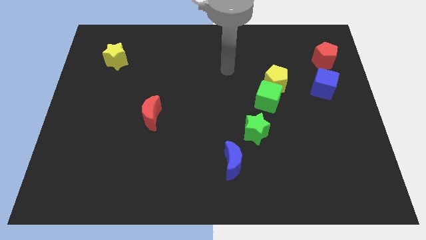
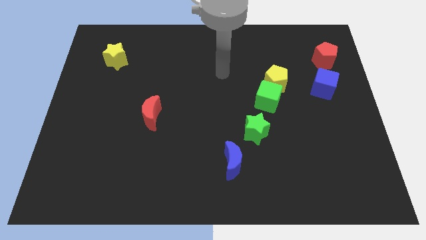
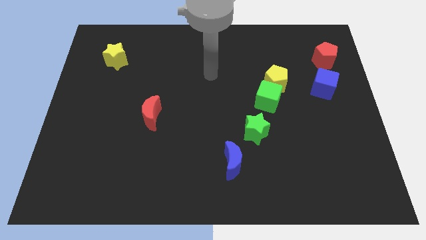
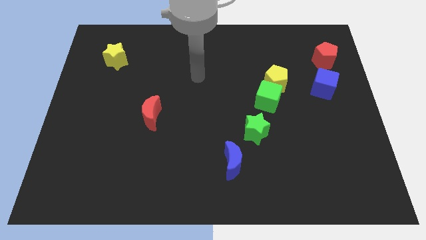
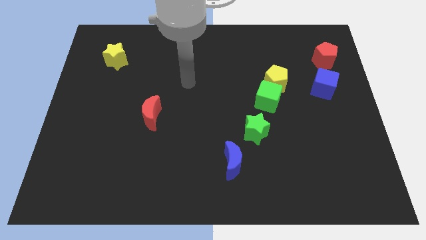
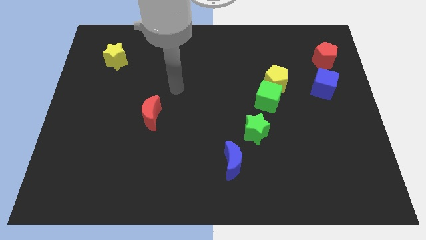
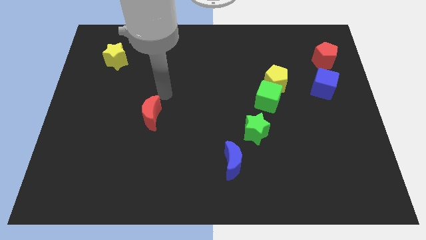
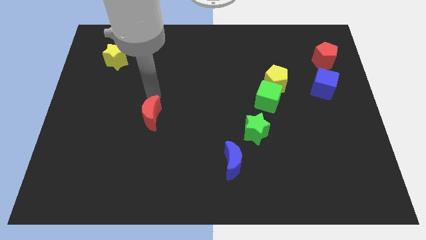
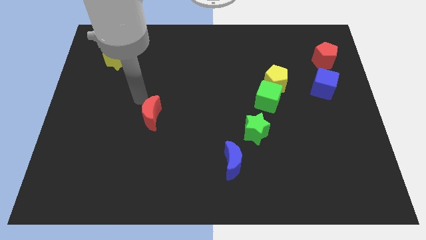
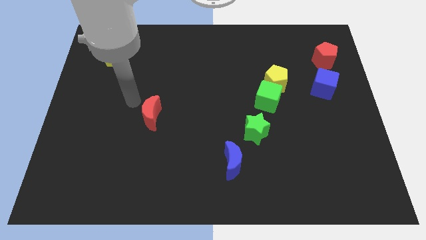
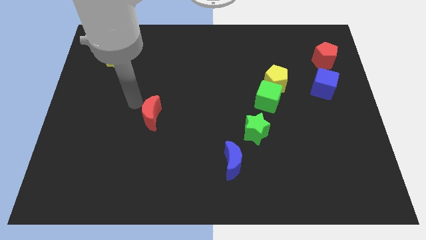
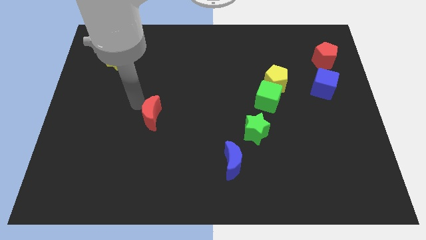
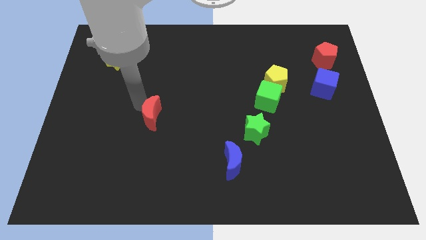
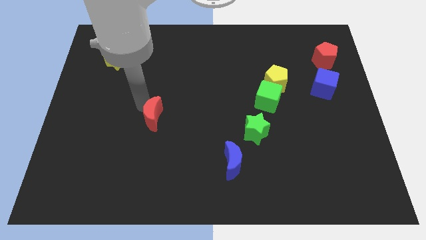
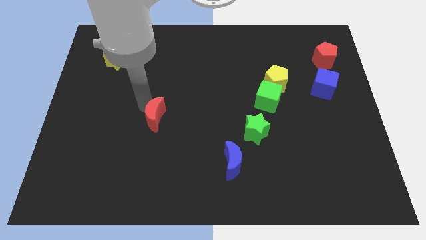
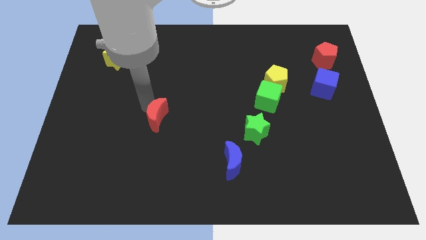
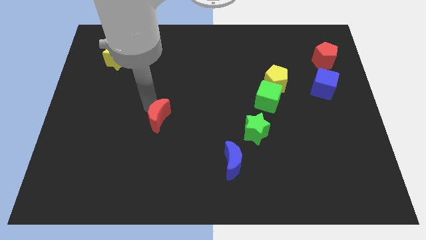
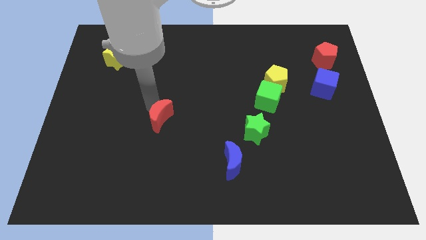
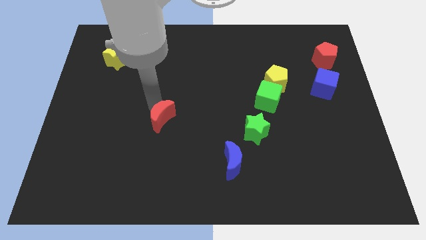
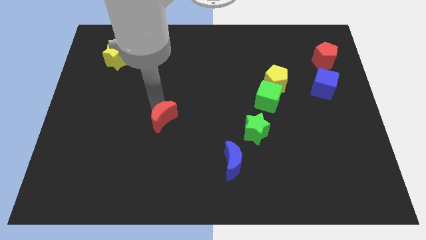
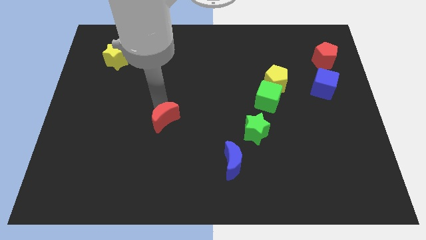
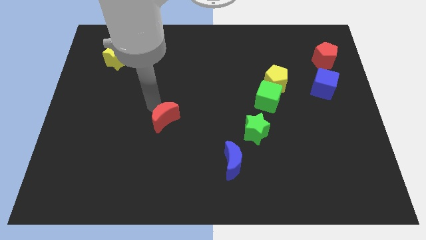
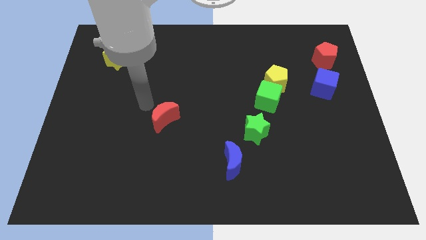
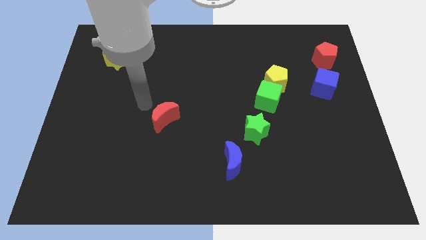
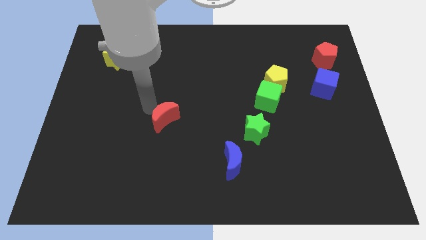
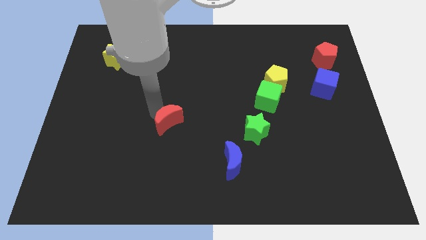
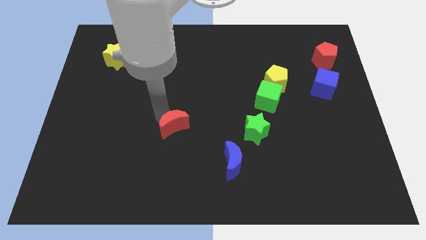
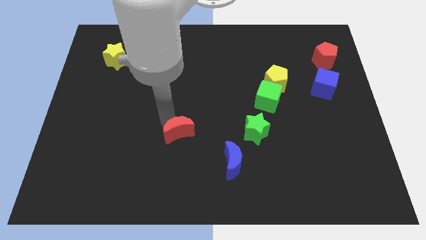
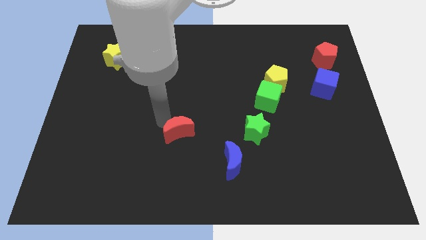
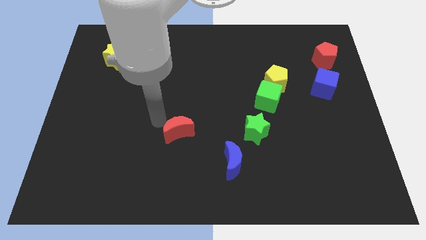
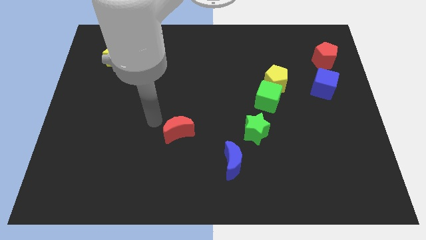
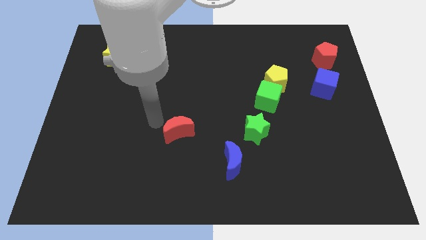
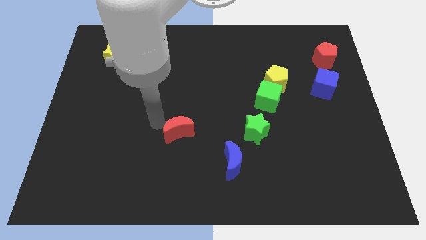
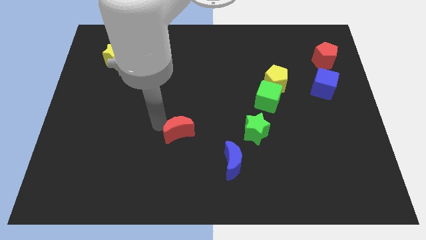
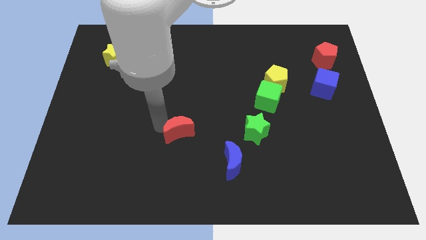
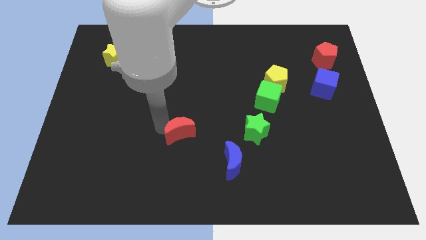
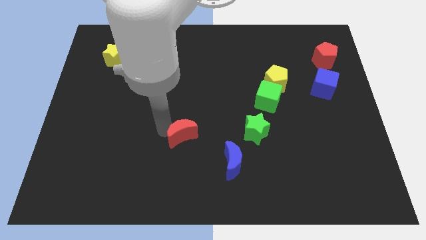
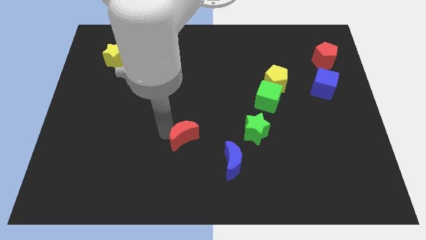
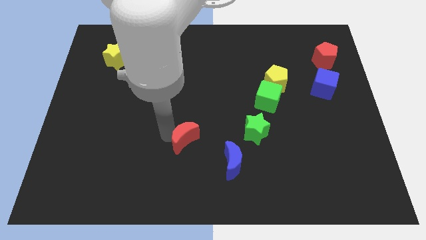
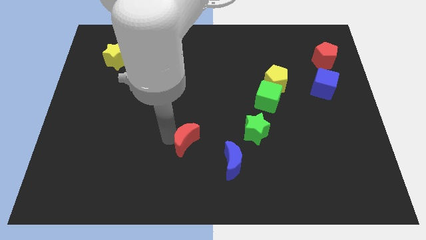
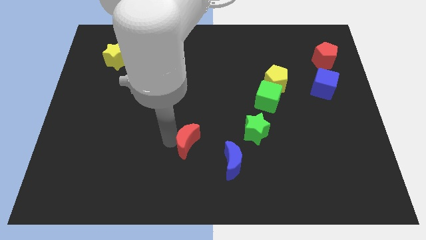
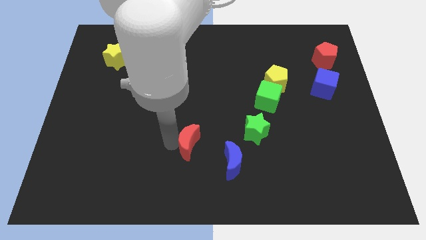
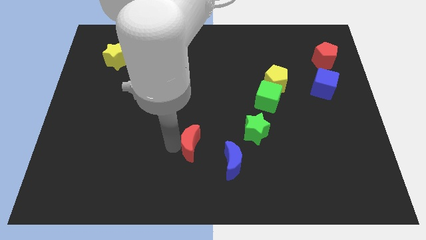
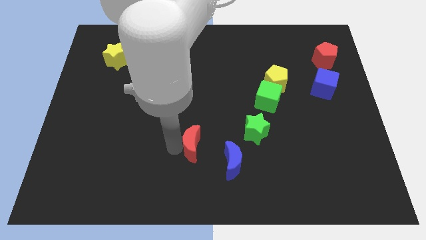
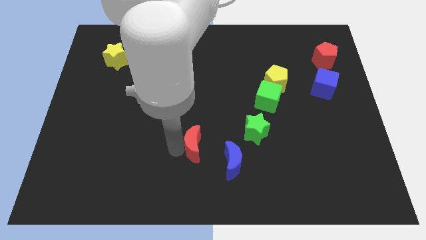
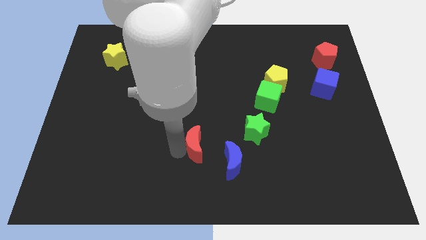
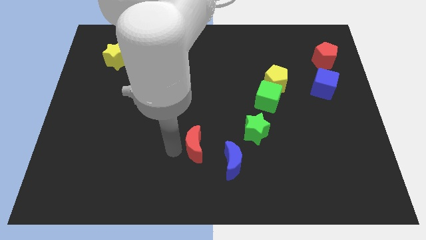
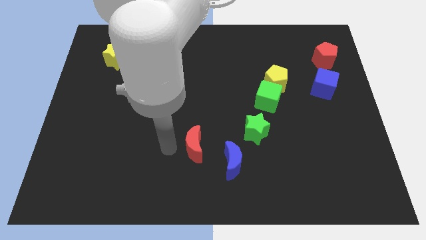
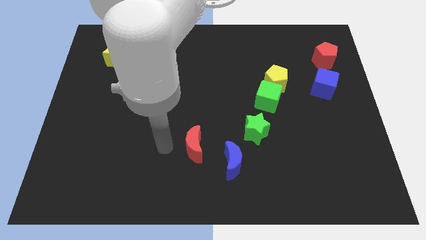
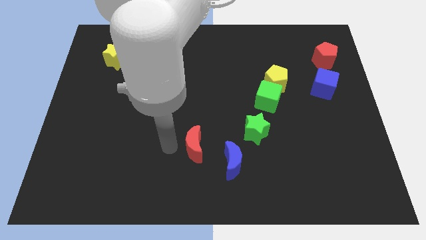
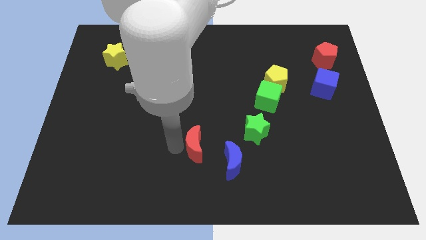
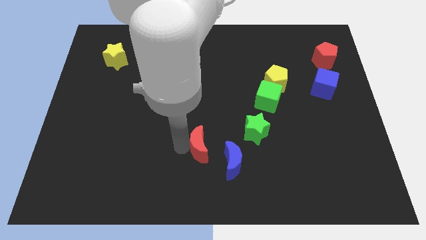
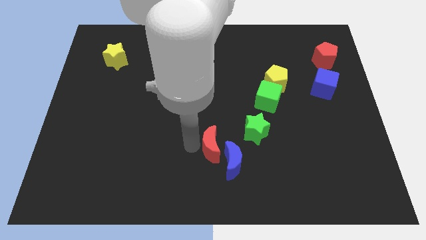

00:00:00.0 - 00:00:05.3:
move the red moon towards the blue moon

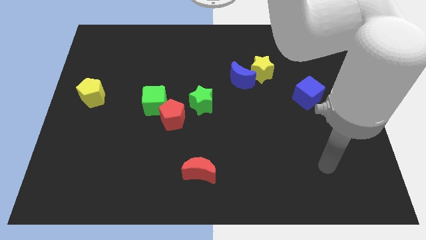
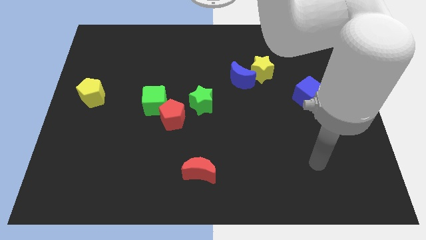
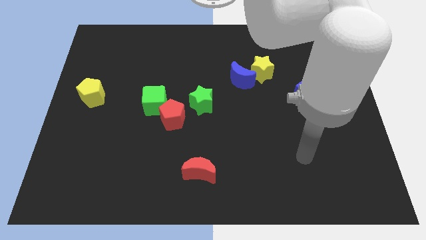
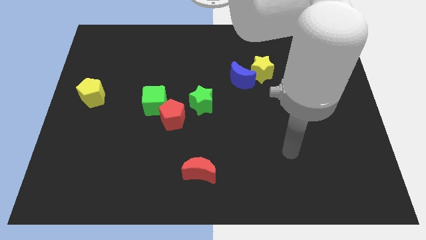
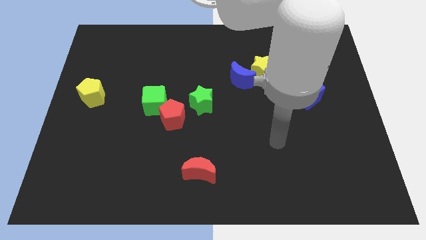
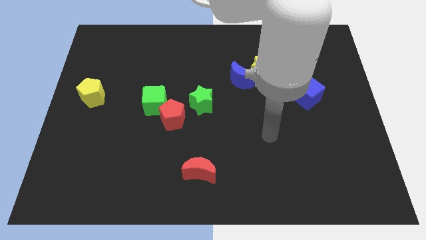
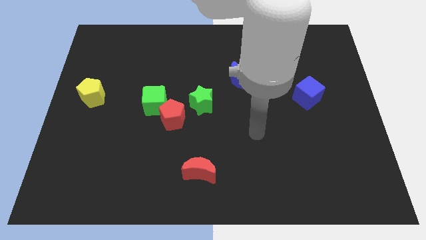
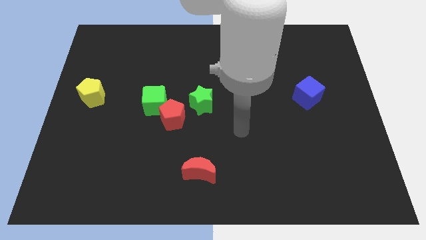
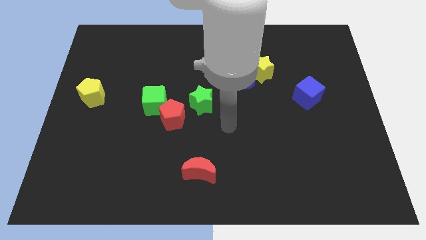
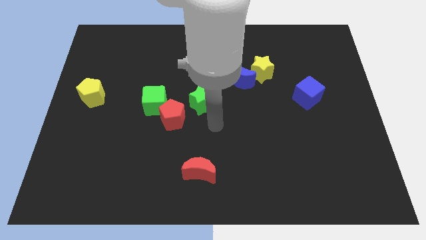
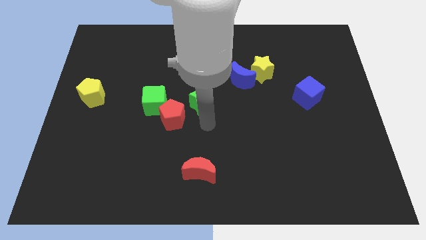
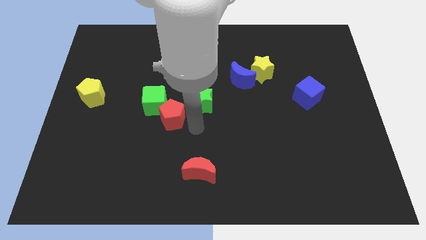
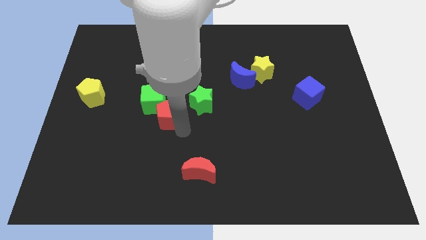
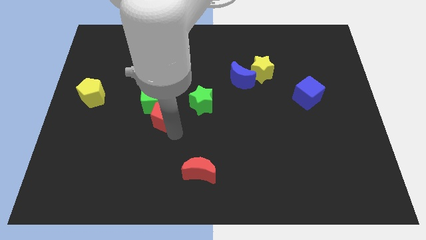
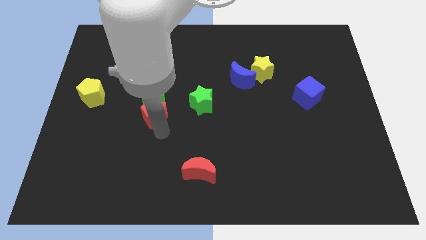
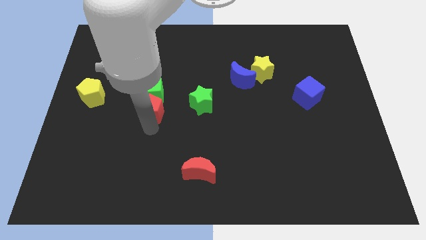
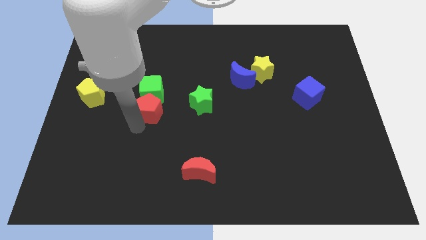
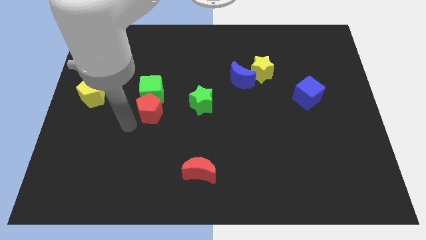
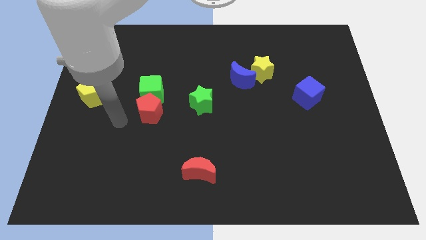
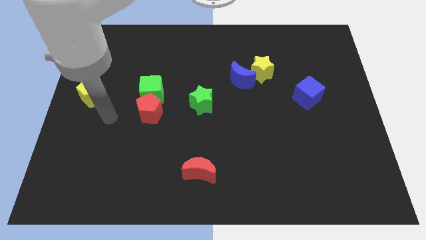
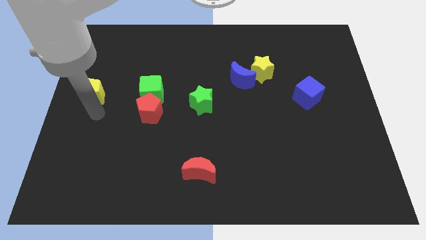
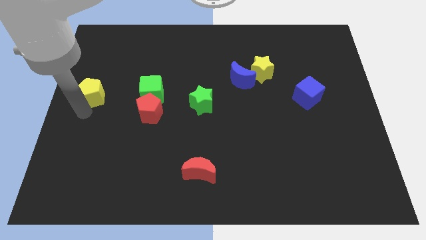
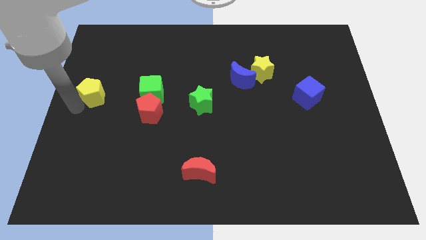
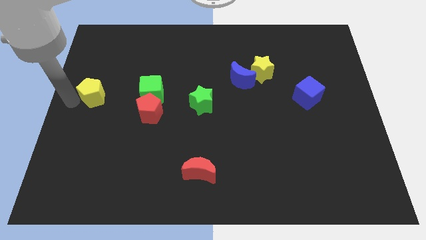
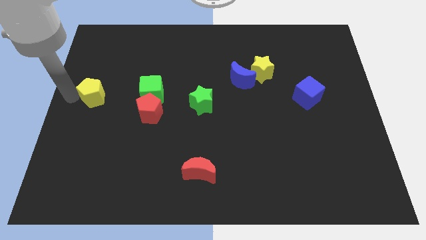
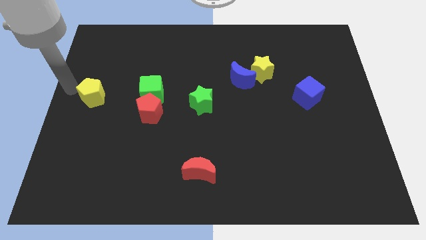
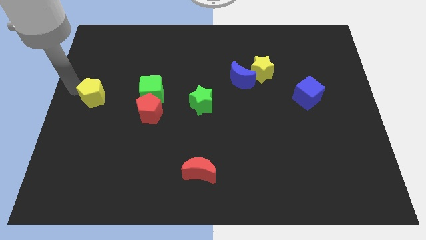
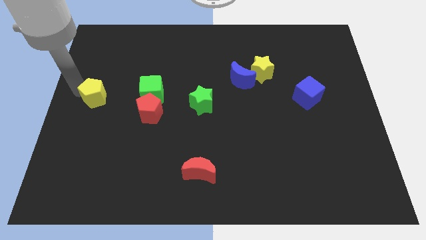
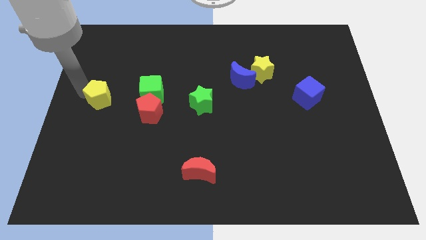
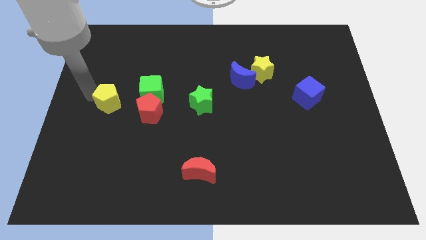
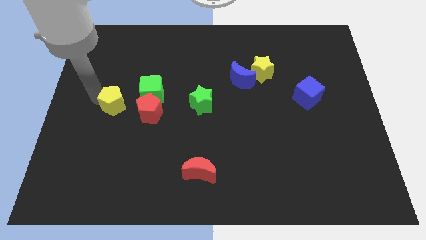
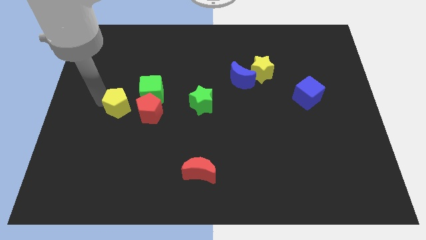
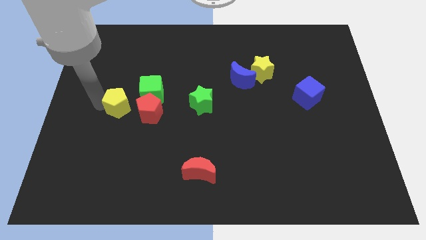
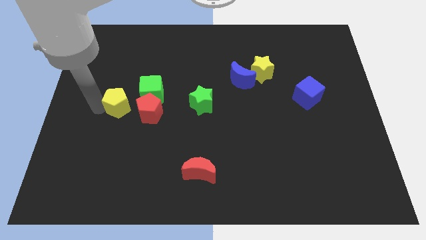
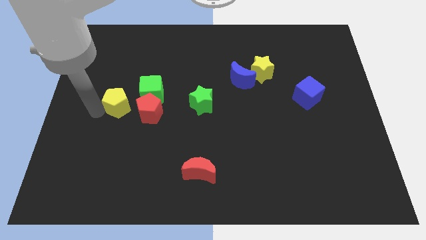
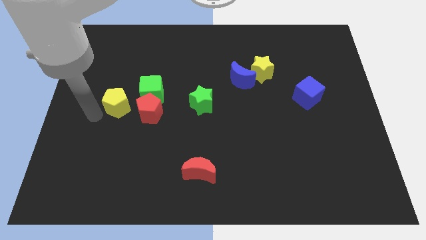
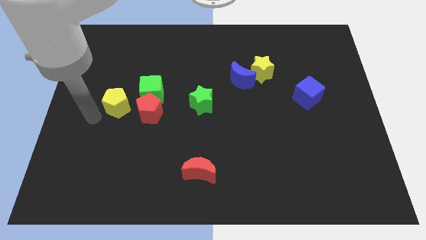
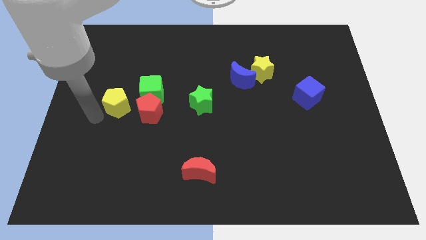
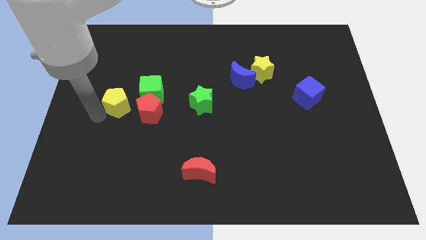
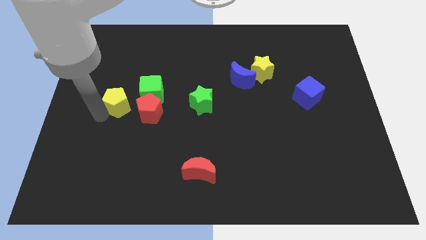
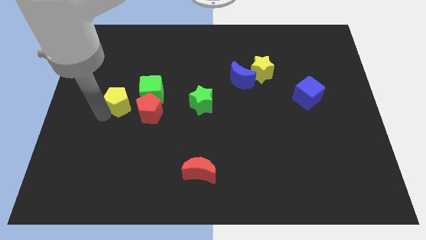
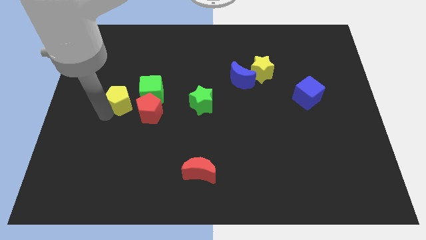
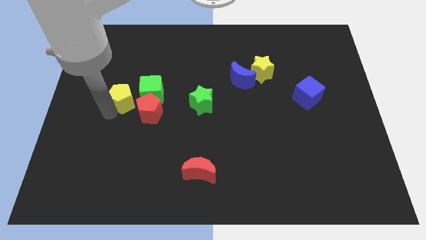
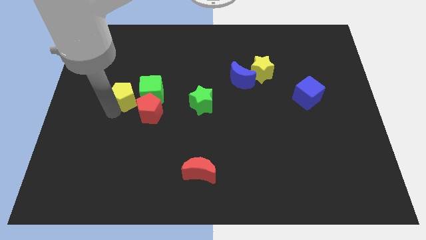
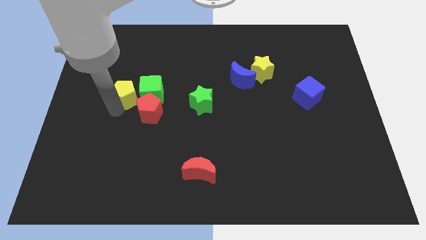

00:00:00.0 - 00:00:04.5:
move the yellow pentagon towards the green cube
